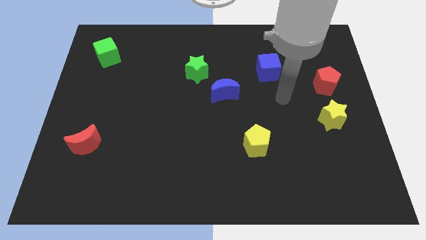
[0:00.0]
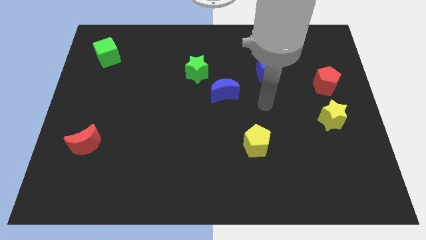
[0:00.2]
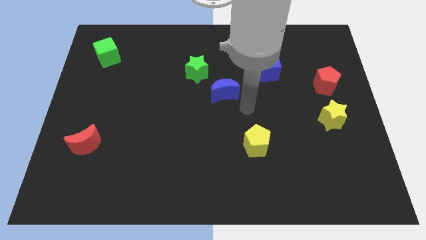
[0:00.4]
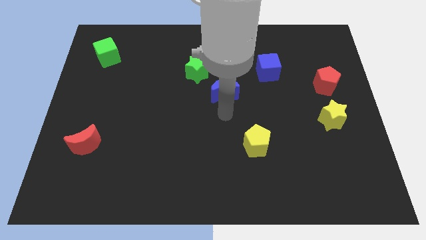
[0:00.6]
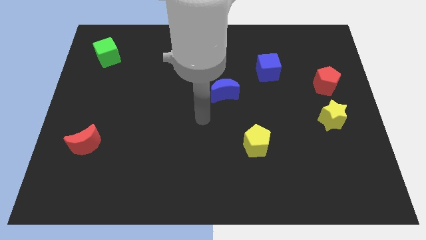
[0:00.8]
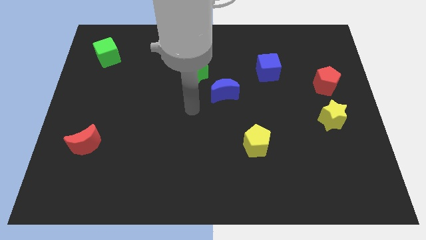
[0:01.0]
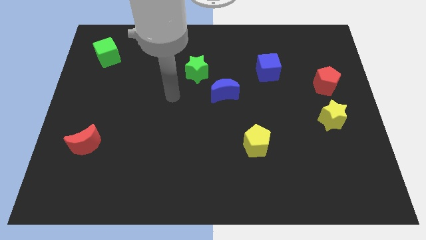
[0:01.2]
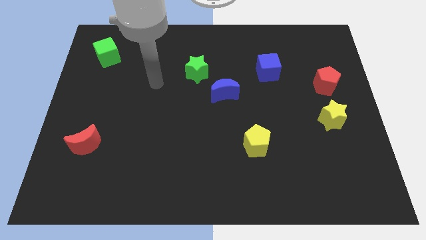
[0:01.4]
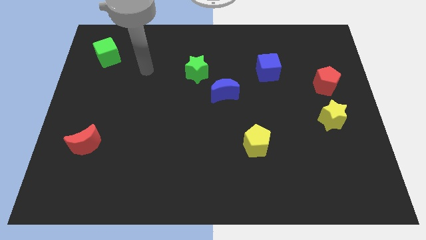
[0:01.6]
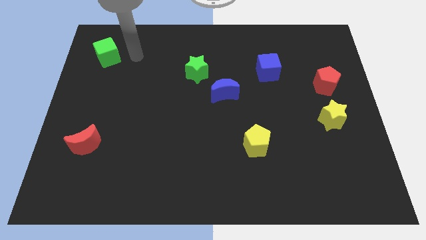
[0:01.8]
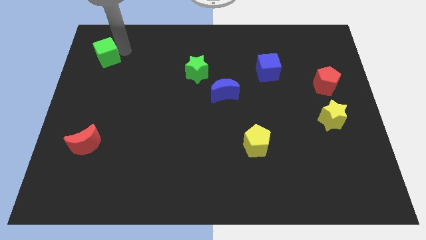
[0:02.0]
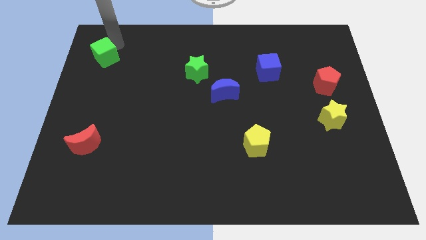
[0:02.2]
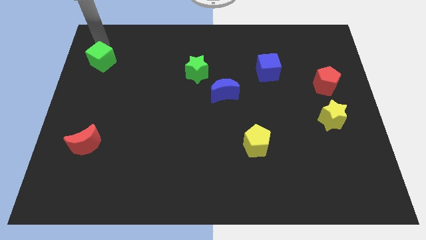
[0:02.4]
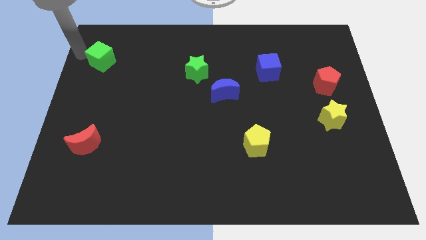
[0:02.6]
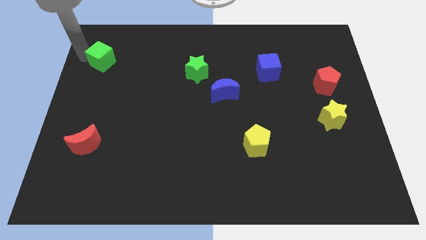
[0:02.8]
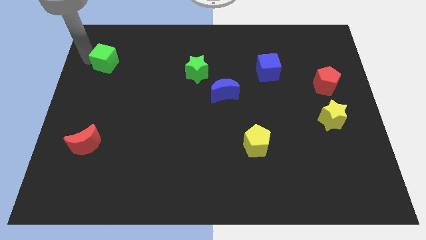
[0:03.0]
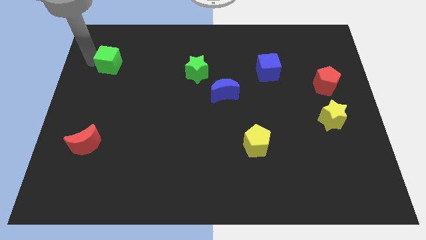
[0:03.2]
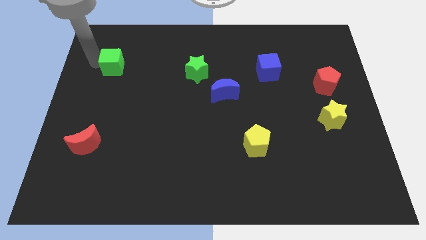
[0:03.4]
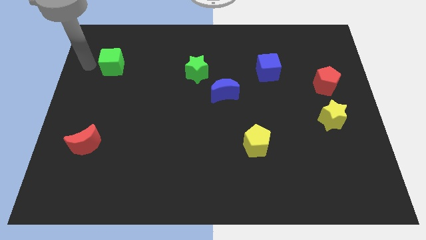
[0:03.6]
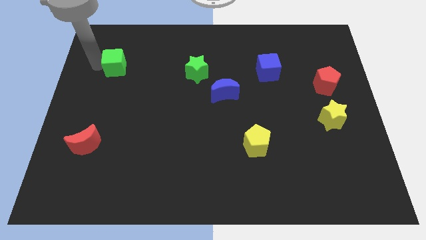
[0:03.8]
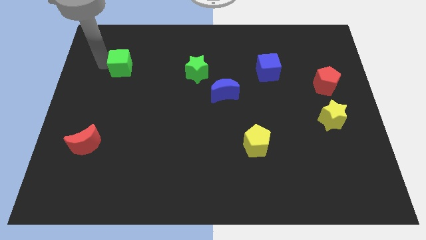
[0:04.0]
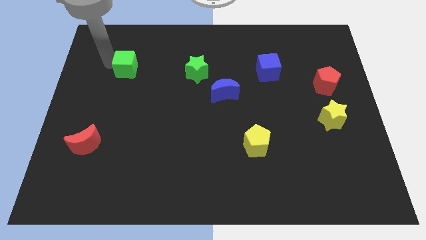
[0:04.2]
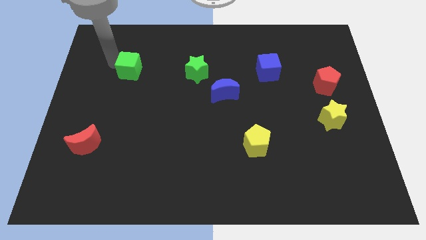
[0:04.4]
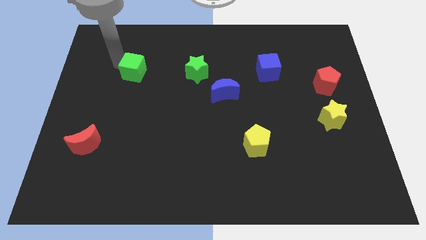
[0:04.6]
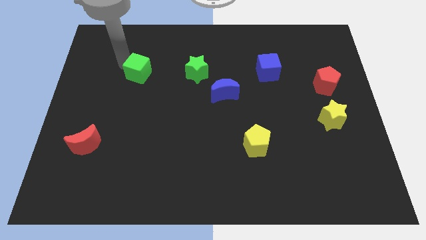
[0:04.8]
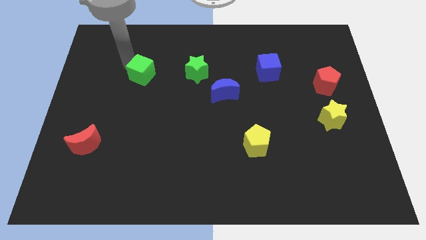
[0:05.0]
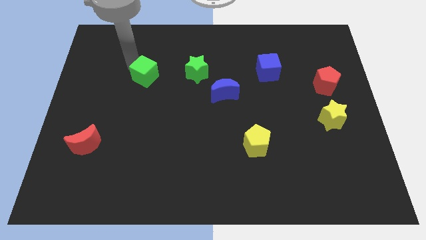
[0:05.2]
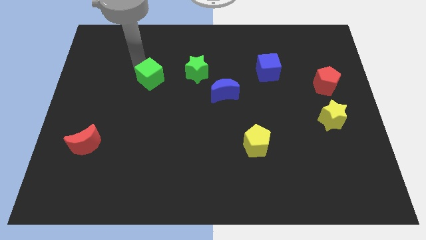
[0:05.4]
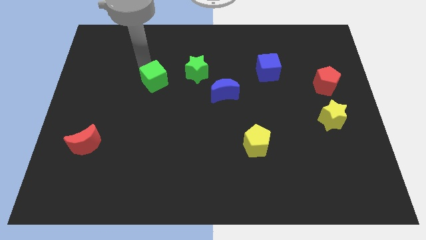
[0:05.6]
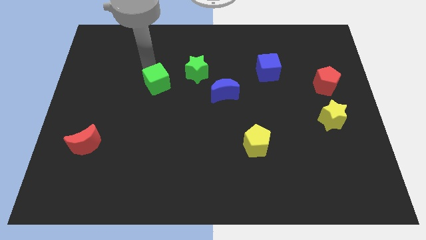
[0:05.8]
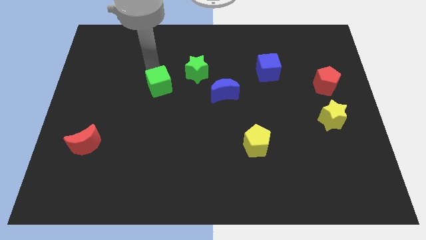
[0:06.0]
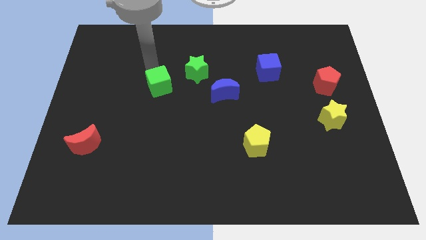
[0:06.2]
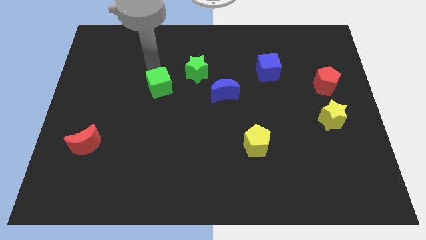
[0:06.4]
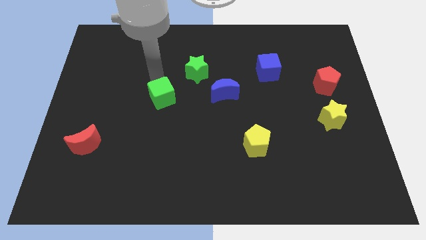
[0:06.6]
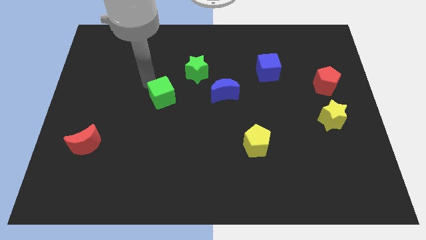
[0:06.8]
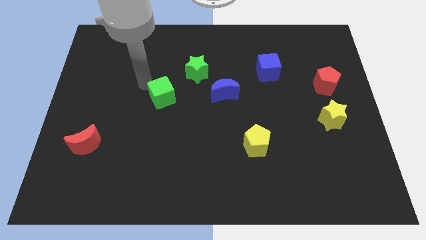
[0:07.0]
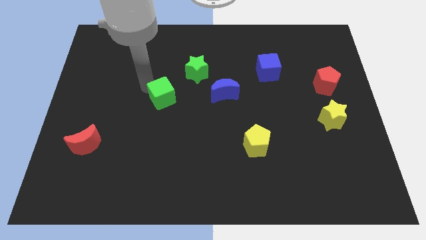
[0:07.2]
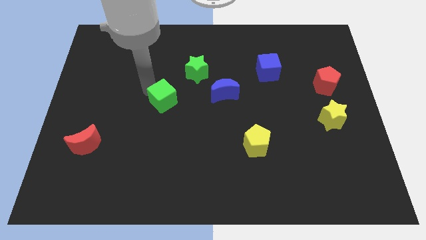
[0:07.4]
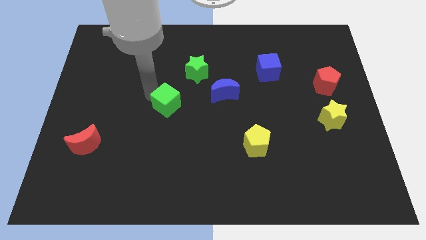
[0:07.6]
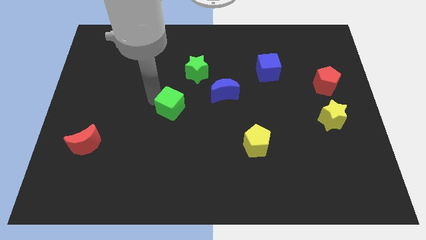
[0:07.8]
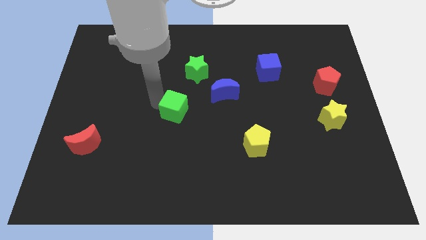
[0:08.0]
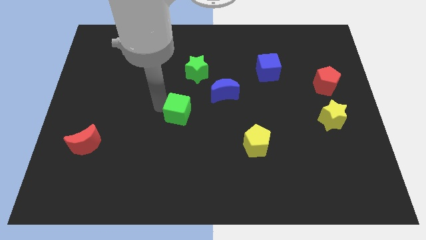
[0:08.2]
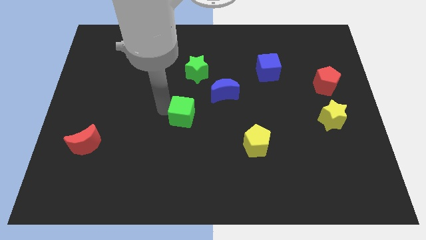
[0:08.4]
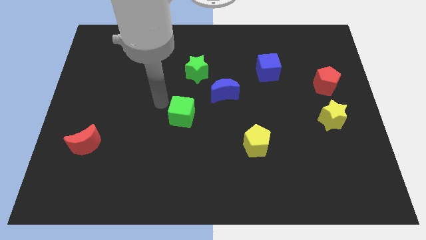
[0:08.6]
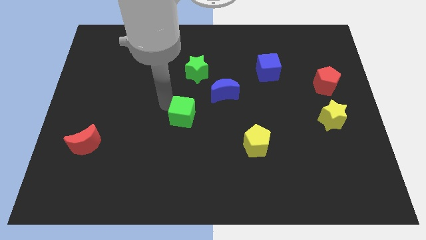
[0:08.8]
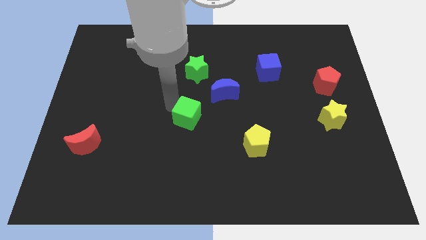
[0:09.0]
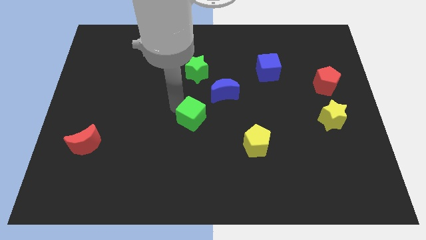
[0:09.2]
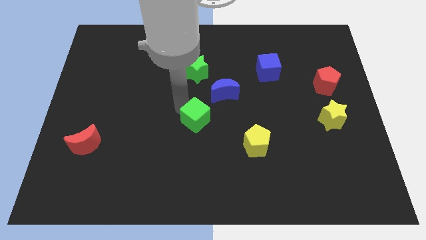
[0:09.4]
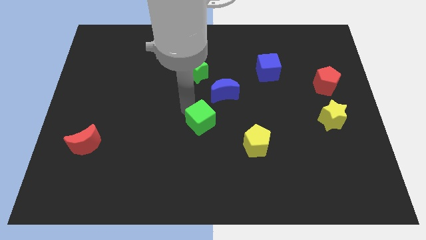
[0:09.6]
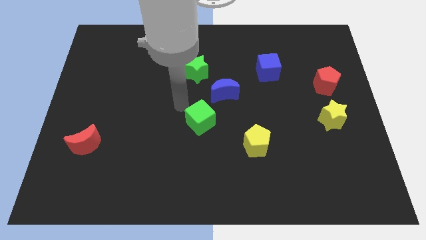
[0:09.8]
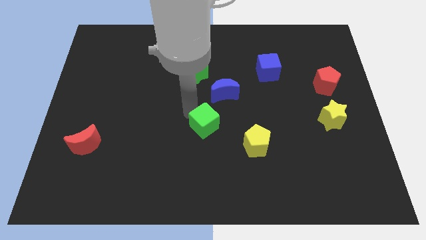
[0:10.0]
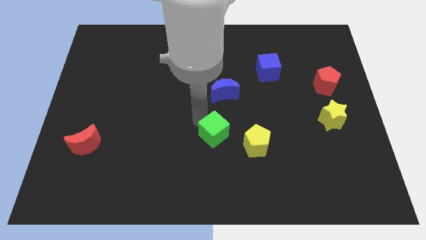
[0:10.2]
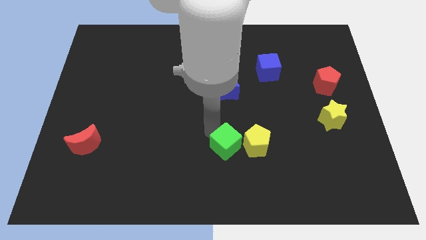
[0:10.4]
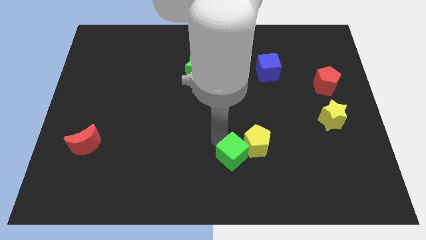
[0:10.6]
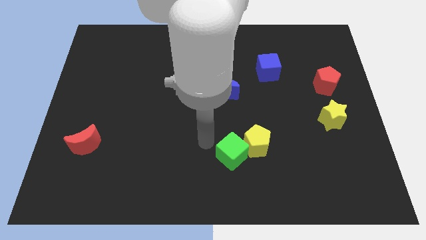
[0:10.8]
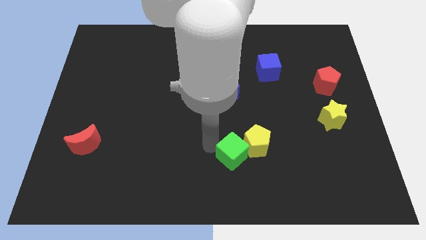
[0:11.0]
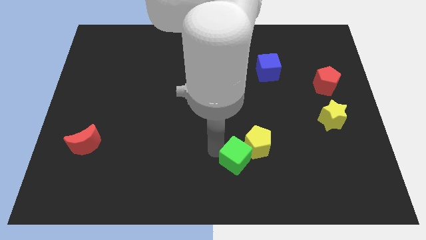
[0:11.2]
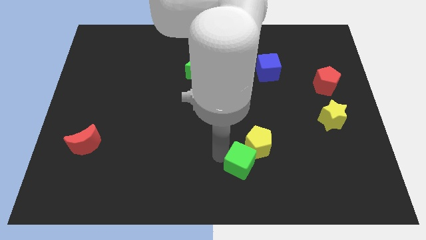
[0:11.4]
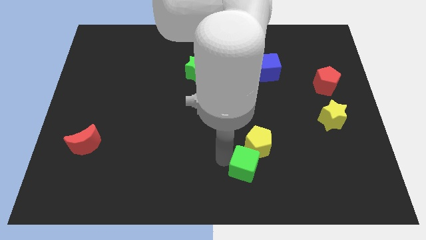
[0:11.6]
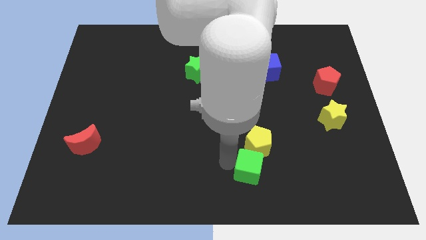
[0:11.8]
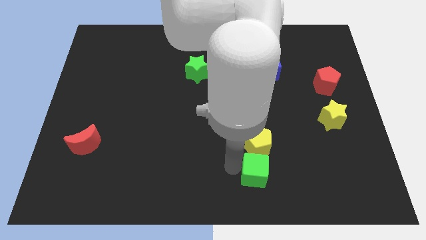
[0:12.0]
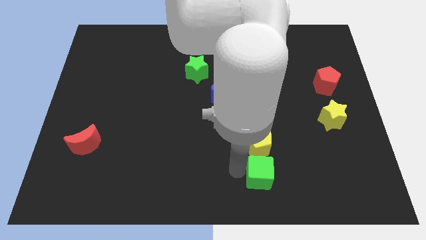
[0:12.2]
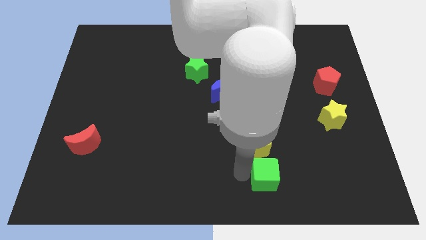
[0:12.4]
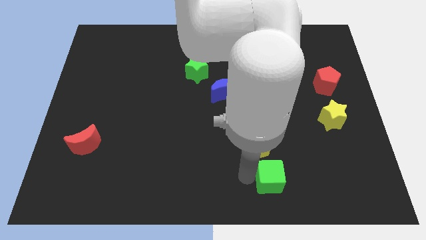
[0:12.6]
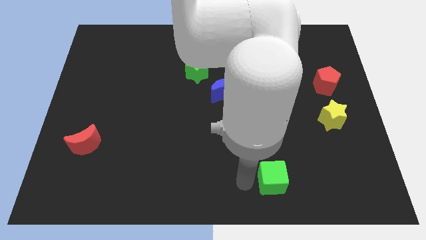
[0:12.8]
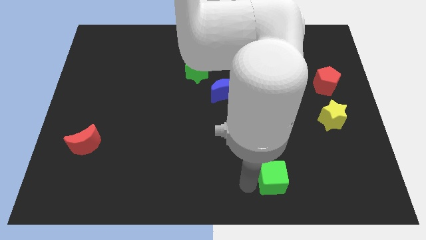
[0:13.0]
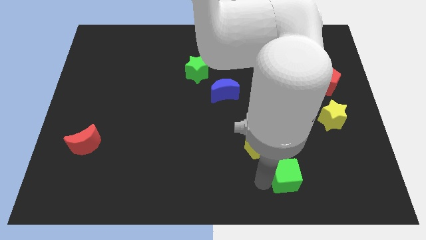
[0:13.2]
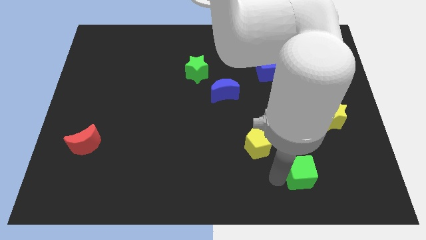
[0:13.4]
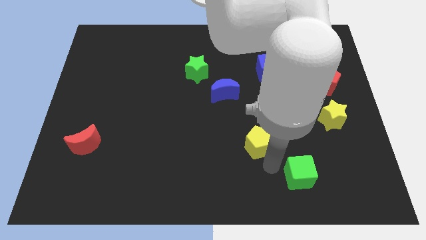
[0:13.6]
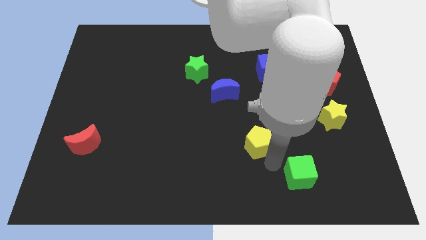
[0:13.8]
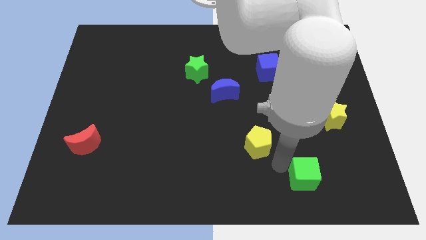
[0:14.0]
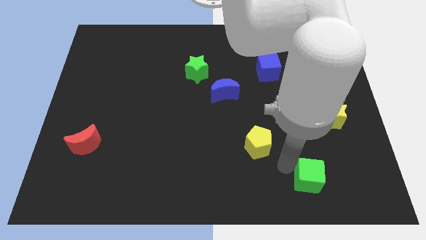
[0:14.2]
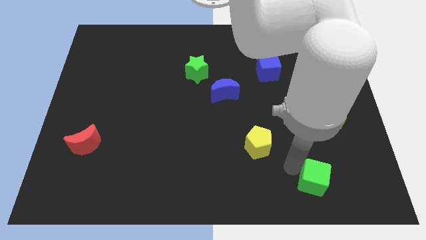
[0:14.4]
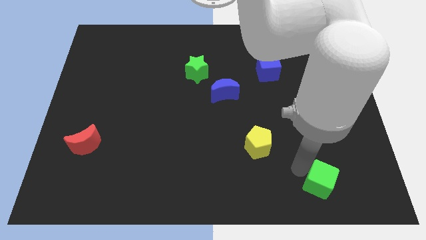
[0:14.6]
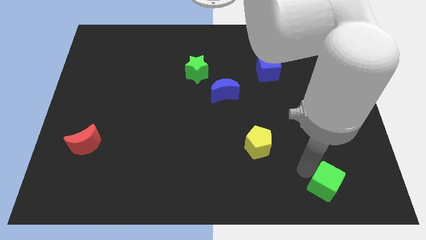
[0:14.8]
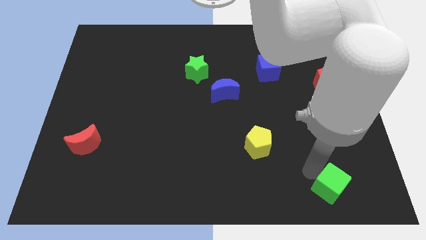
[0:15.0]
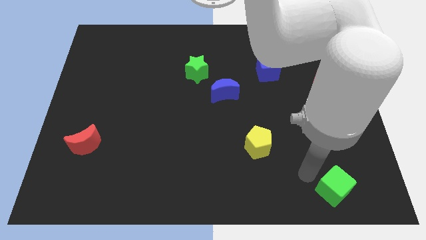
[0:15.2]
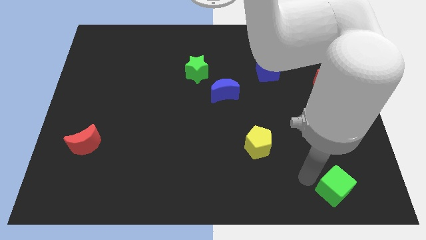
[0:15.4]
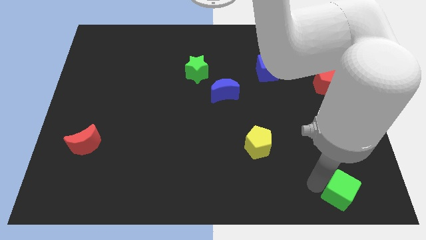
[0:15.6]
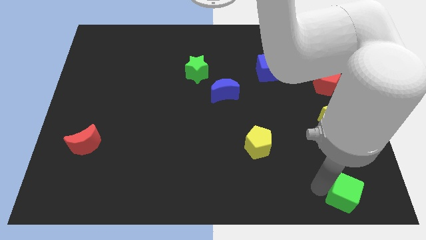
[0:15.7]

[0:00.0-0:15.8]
slide the green cube to the bottom right corner
